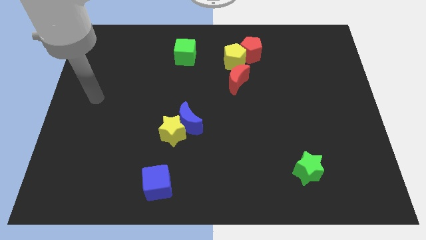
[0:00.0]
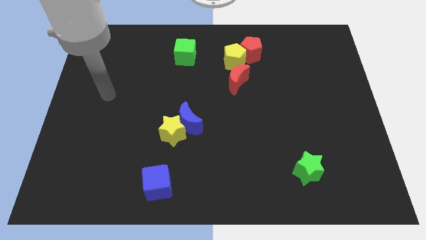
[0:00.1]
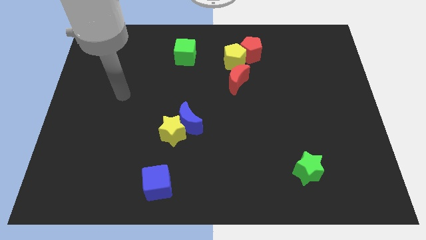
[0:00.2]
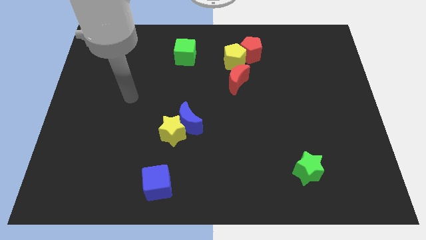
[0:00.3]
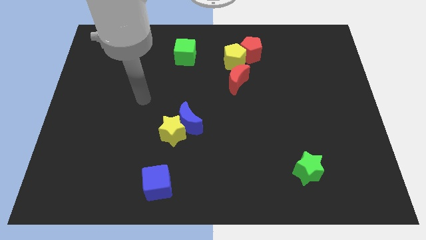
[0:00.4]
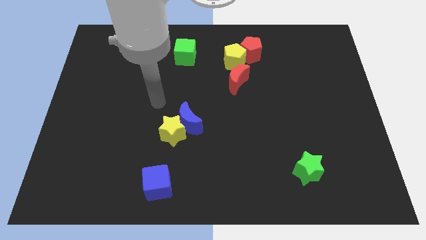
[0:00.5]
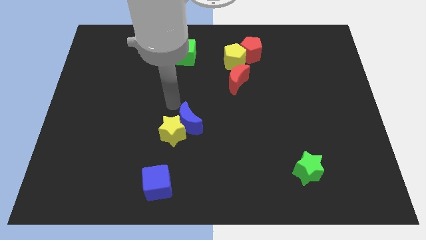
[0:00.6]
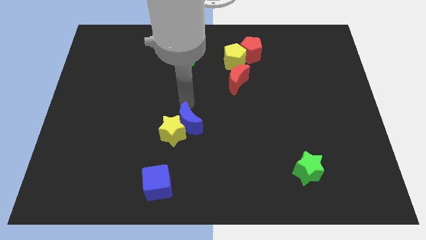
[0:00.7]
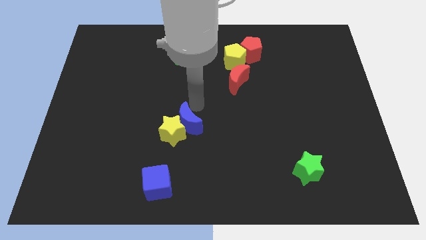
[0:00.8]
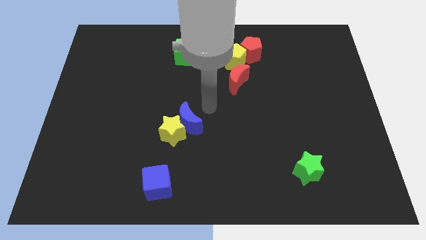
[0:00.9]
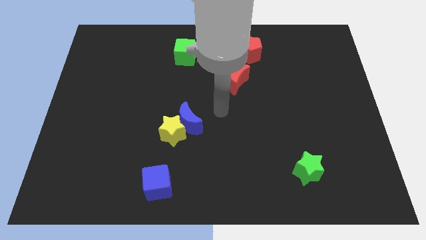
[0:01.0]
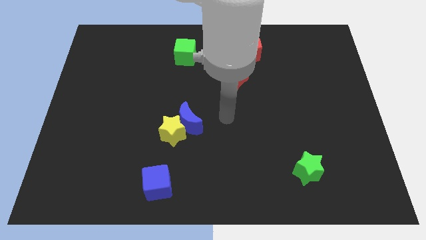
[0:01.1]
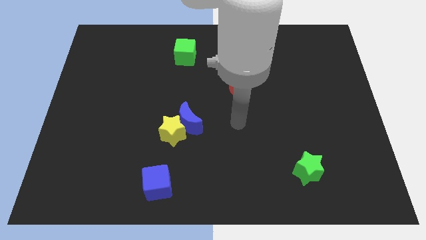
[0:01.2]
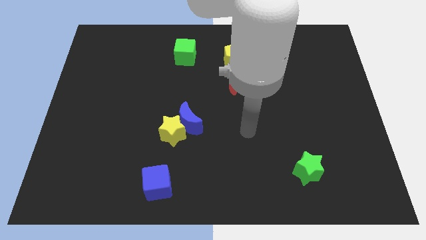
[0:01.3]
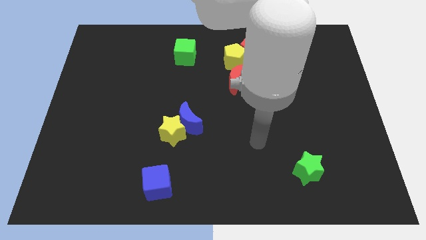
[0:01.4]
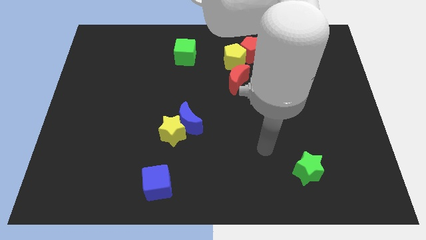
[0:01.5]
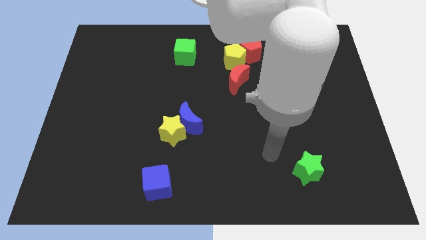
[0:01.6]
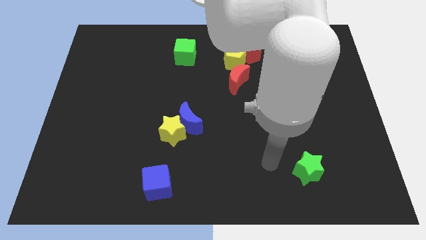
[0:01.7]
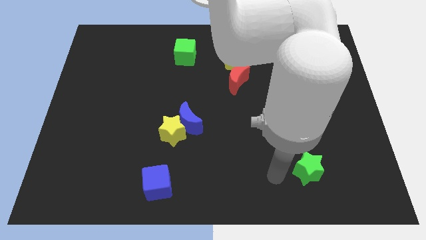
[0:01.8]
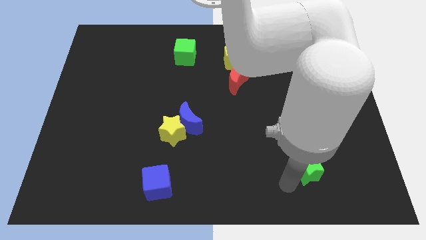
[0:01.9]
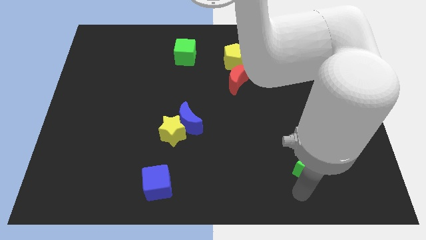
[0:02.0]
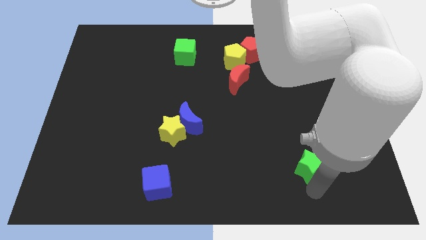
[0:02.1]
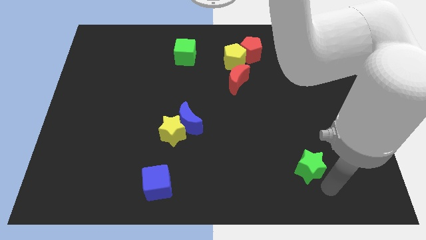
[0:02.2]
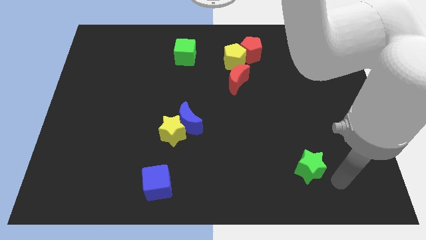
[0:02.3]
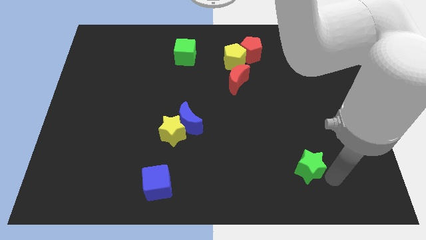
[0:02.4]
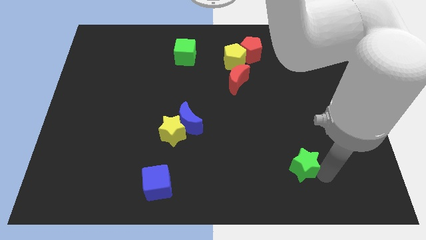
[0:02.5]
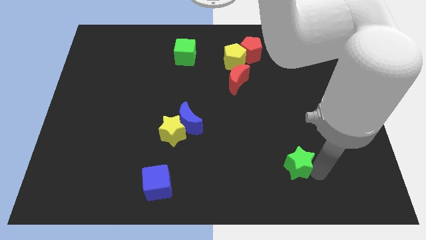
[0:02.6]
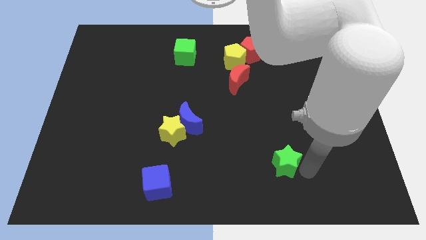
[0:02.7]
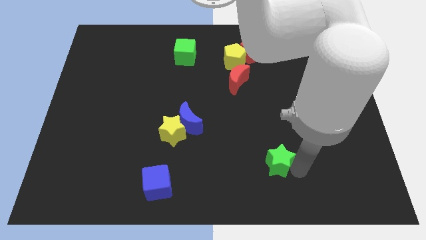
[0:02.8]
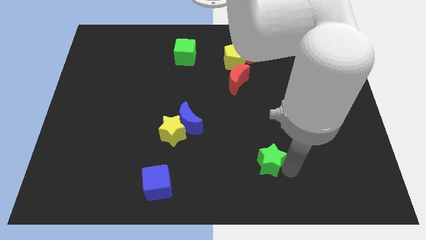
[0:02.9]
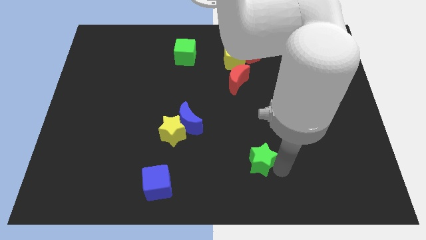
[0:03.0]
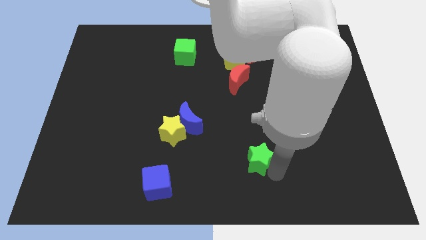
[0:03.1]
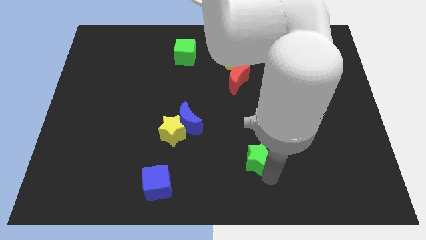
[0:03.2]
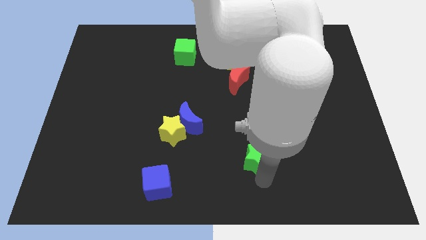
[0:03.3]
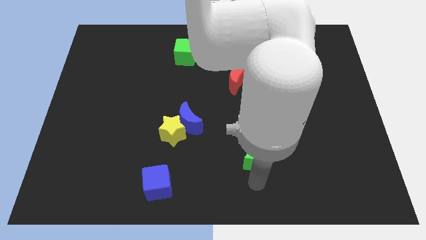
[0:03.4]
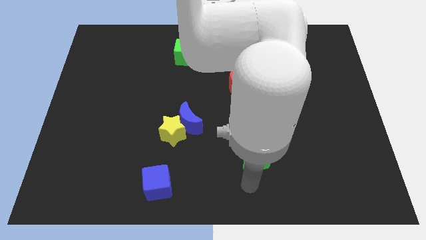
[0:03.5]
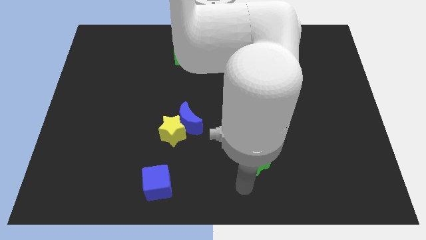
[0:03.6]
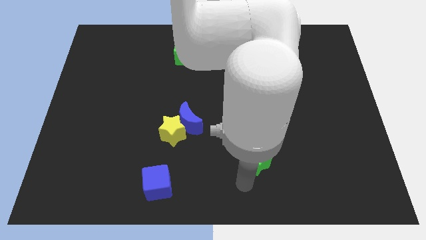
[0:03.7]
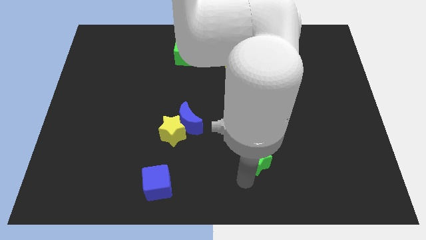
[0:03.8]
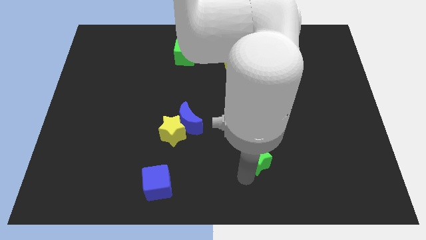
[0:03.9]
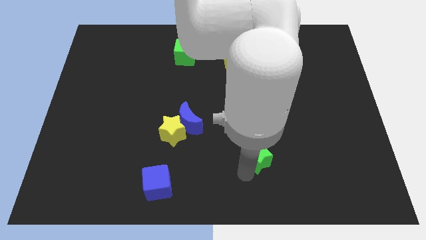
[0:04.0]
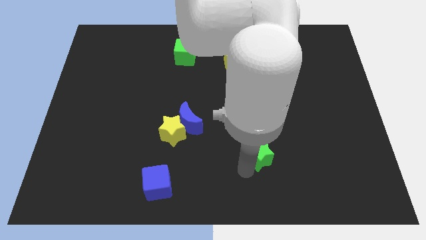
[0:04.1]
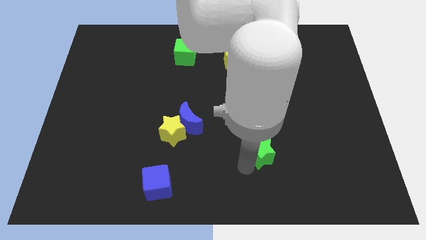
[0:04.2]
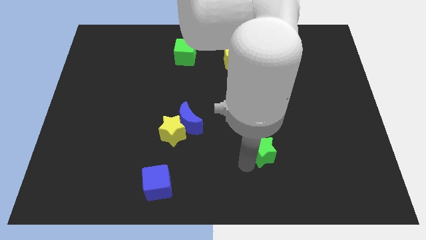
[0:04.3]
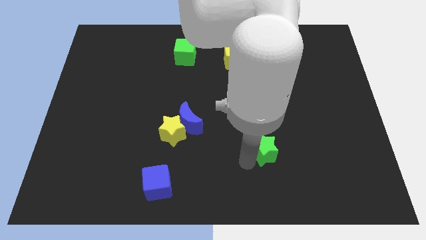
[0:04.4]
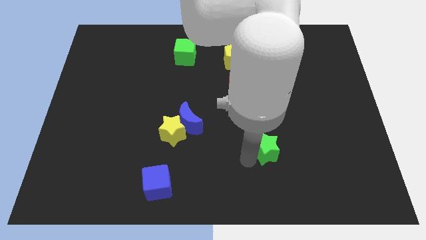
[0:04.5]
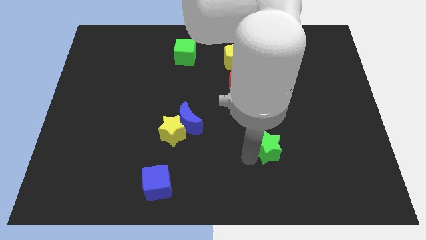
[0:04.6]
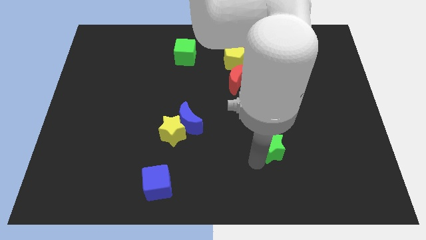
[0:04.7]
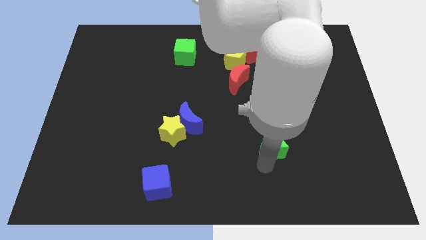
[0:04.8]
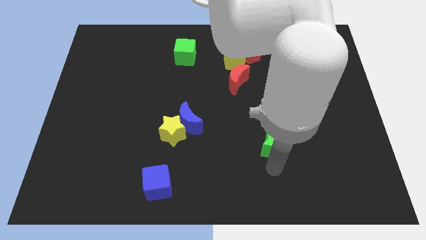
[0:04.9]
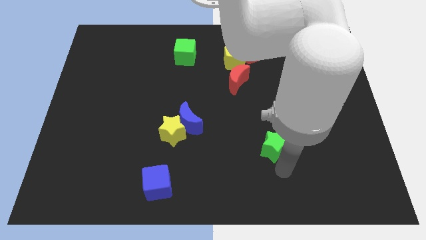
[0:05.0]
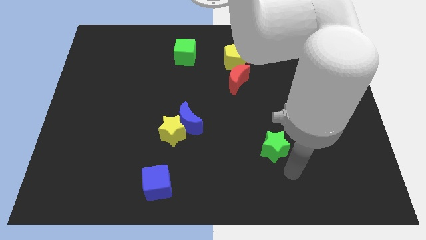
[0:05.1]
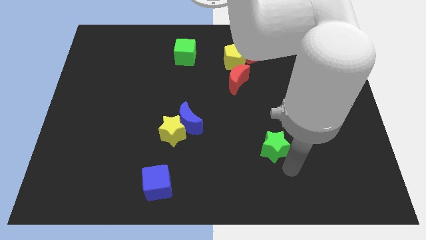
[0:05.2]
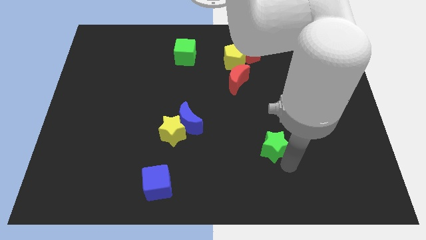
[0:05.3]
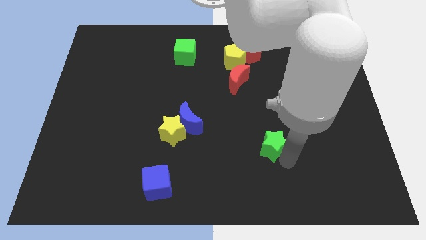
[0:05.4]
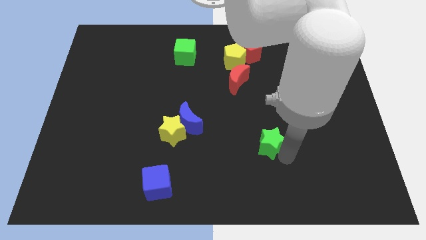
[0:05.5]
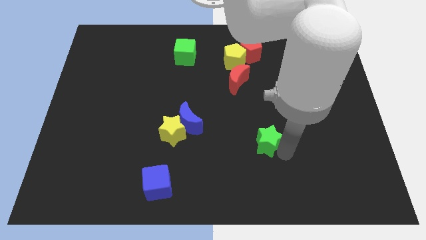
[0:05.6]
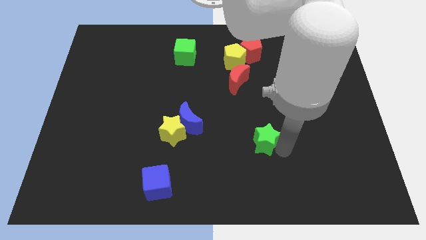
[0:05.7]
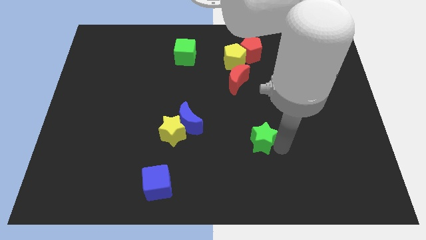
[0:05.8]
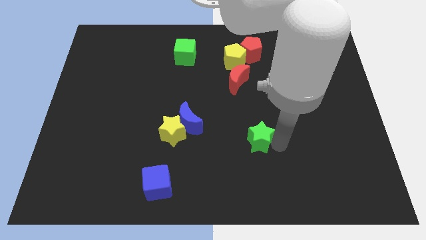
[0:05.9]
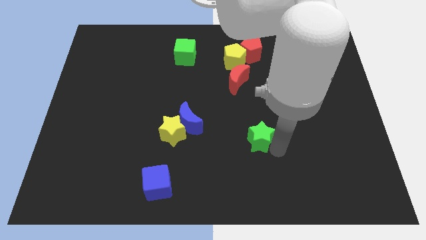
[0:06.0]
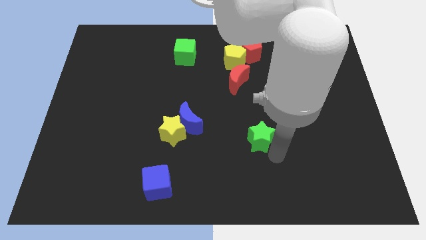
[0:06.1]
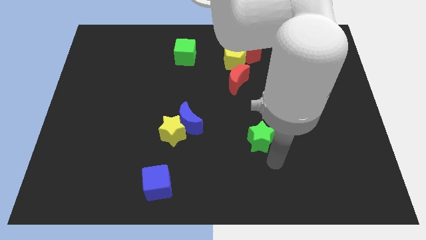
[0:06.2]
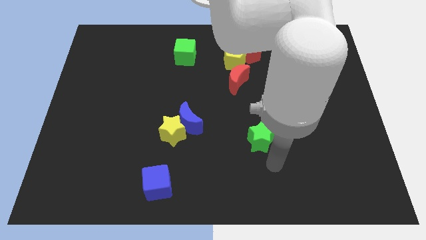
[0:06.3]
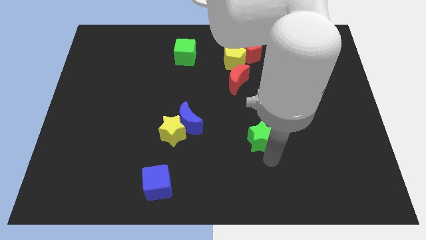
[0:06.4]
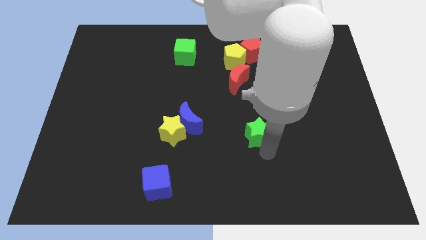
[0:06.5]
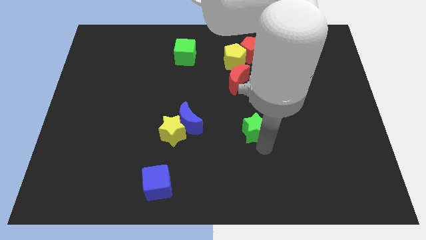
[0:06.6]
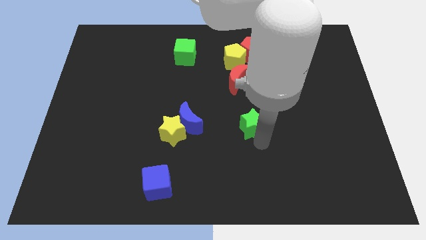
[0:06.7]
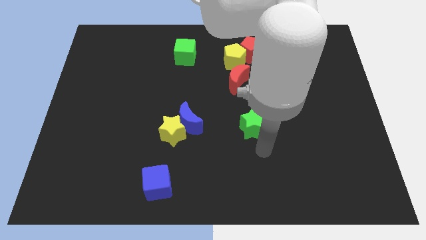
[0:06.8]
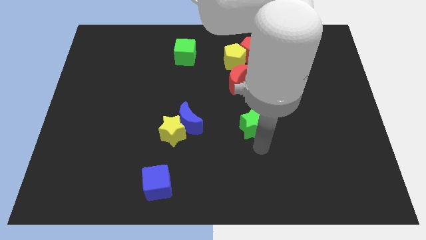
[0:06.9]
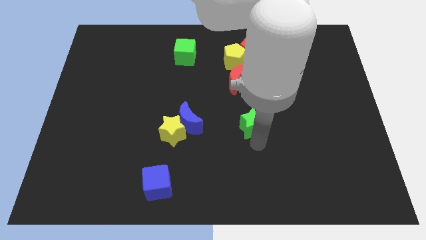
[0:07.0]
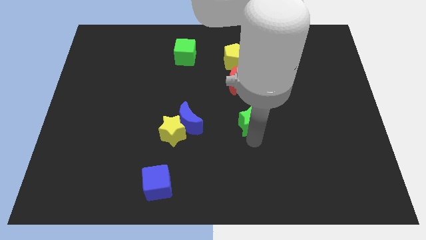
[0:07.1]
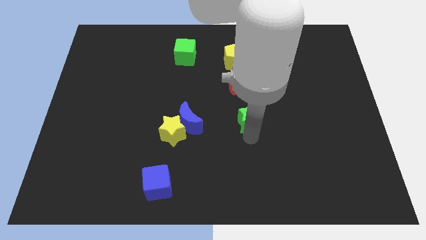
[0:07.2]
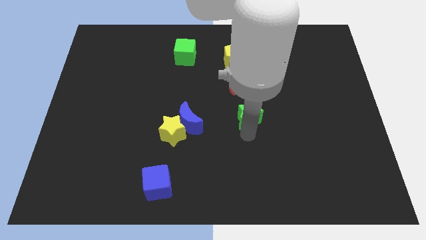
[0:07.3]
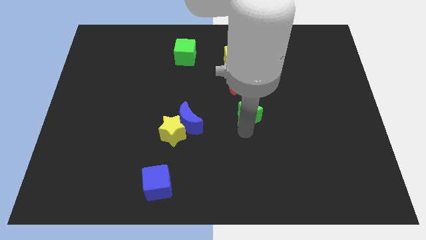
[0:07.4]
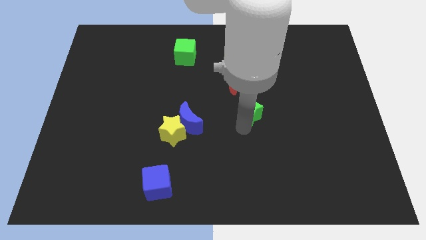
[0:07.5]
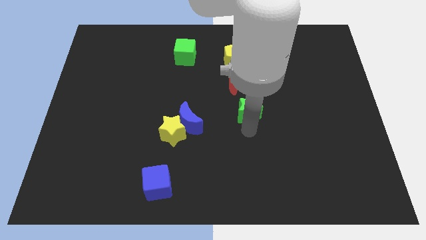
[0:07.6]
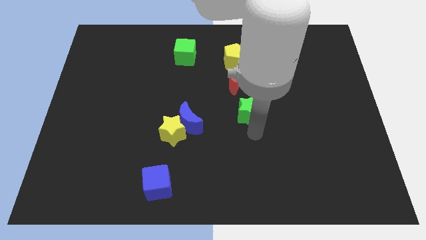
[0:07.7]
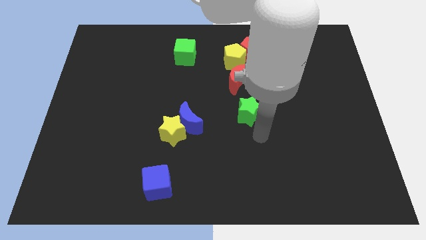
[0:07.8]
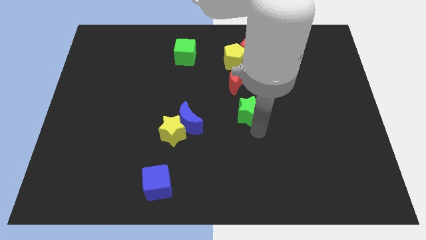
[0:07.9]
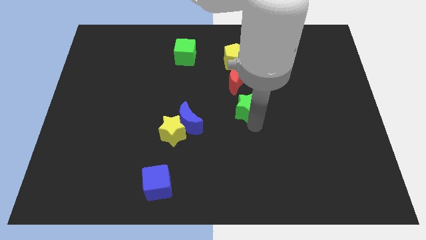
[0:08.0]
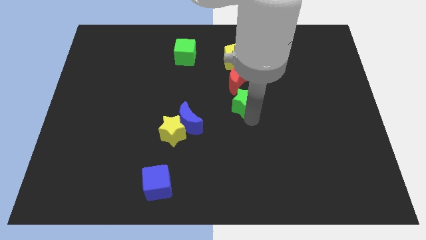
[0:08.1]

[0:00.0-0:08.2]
slide the green star below the yellow pentagon
